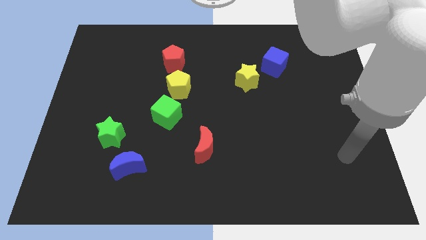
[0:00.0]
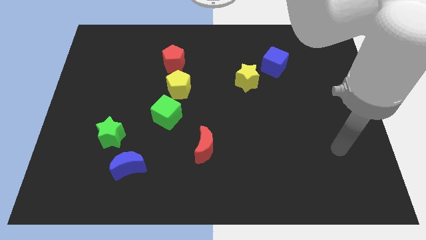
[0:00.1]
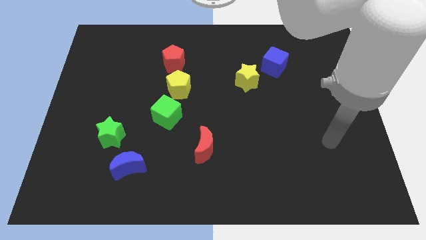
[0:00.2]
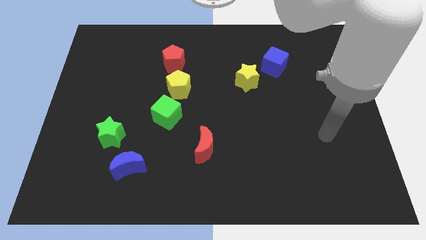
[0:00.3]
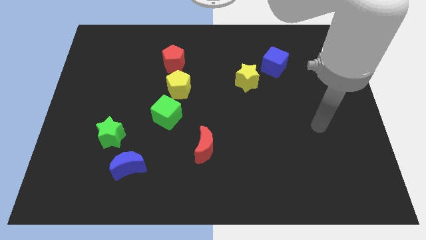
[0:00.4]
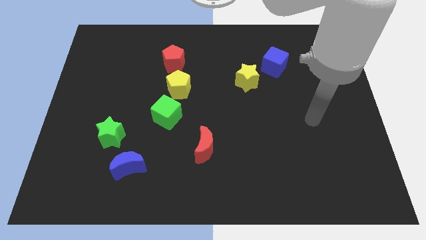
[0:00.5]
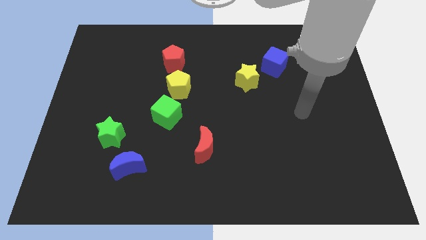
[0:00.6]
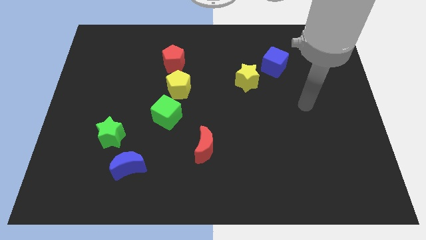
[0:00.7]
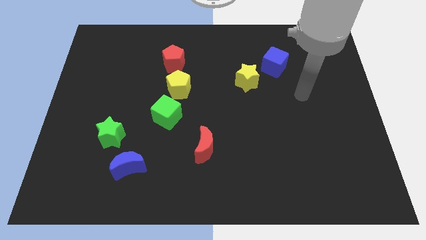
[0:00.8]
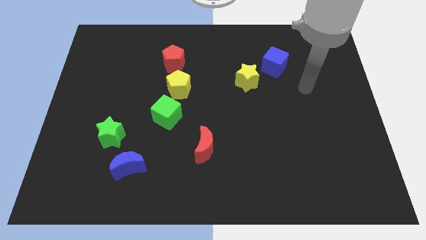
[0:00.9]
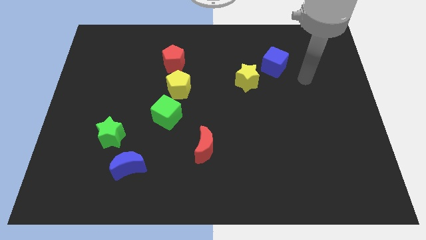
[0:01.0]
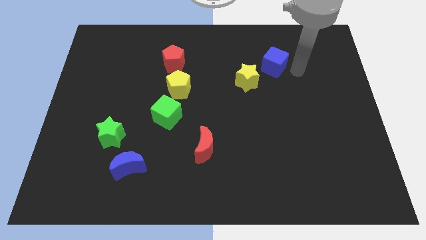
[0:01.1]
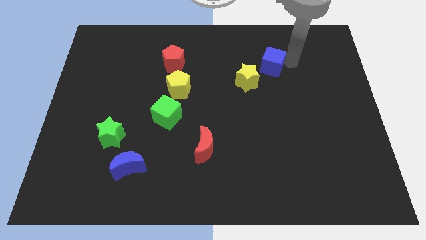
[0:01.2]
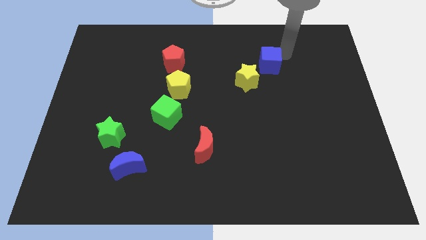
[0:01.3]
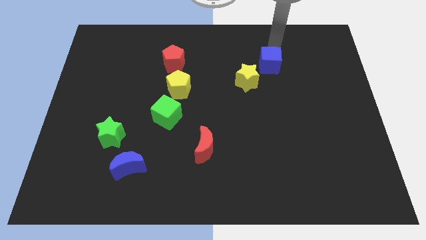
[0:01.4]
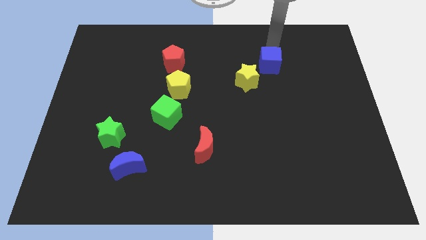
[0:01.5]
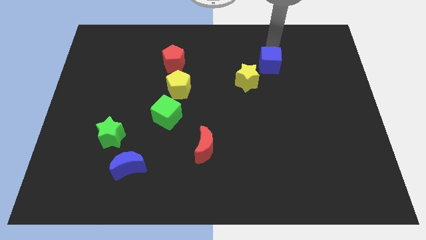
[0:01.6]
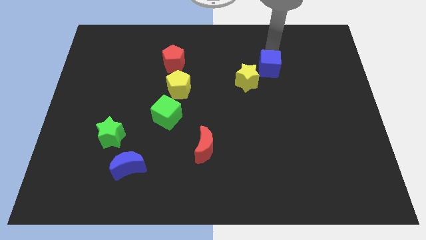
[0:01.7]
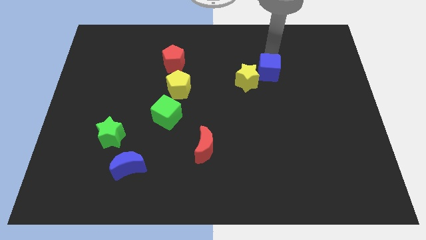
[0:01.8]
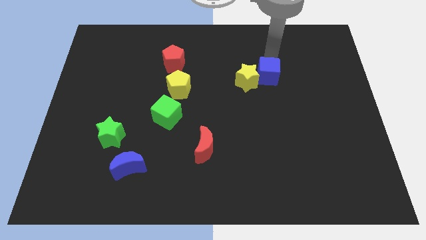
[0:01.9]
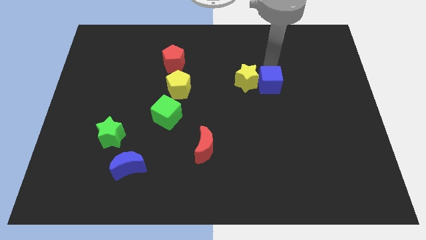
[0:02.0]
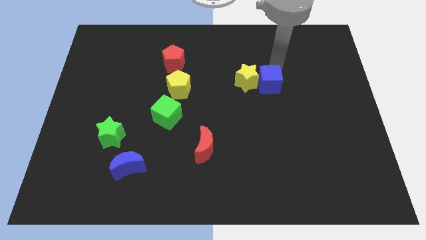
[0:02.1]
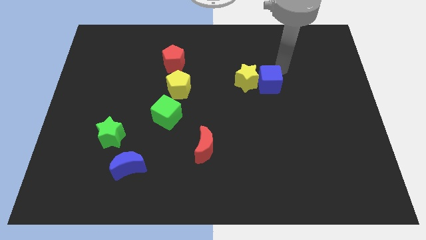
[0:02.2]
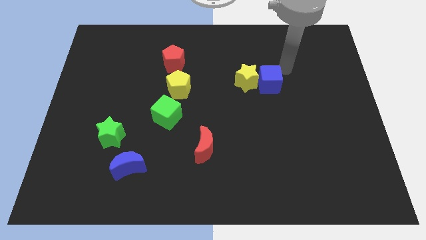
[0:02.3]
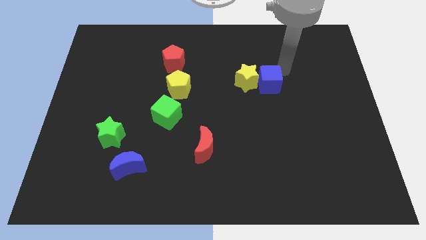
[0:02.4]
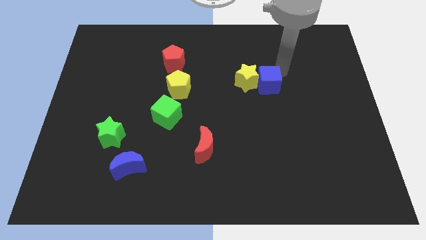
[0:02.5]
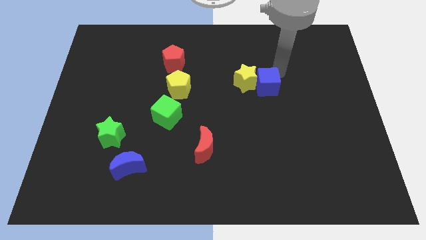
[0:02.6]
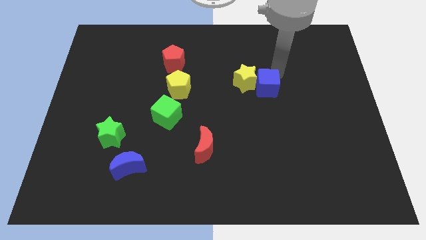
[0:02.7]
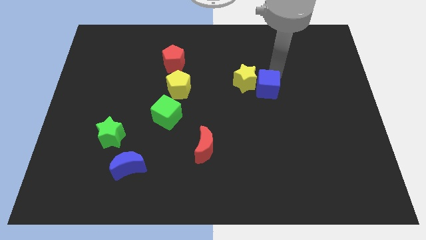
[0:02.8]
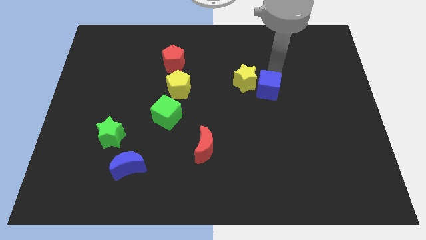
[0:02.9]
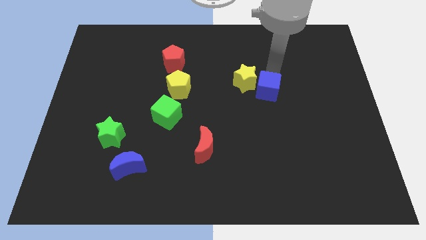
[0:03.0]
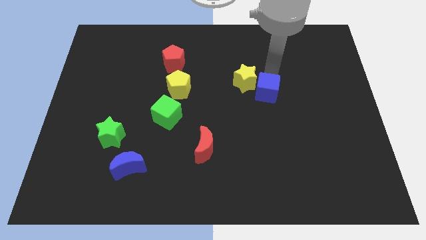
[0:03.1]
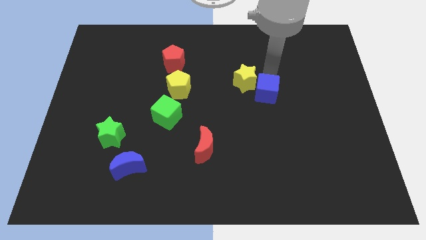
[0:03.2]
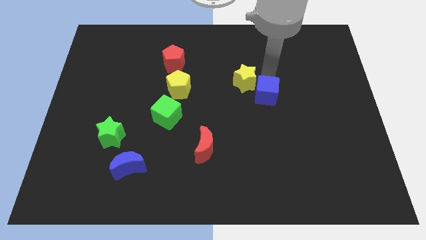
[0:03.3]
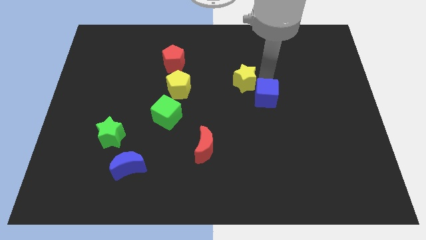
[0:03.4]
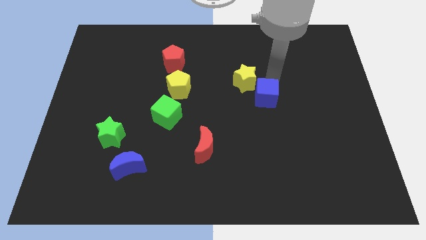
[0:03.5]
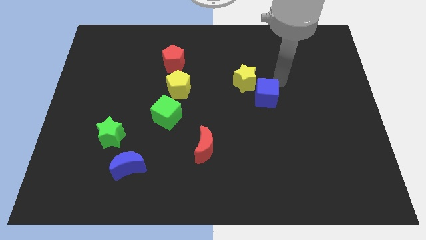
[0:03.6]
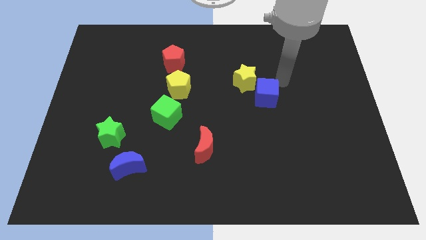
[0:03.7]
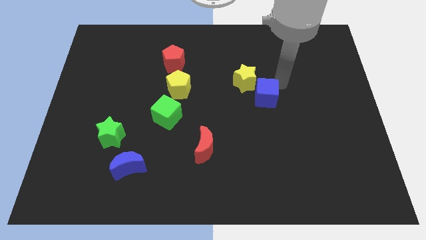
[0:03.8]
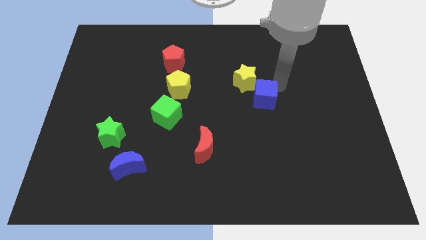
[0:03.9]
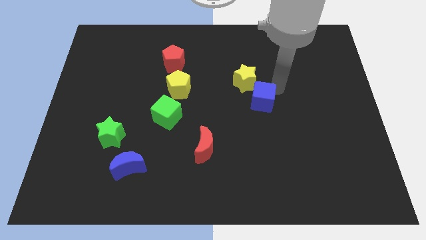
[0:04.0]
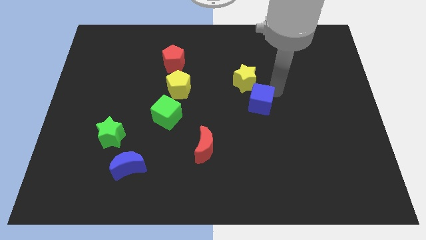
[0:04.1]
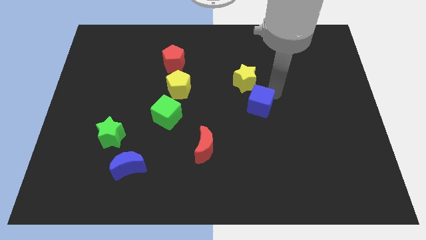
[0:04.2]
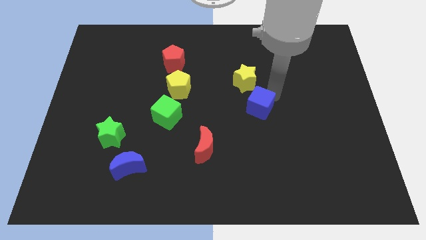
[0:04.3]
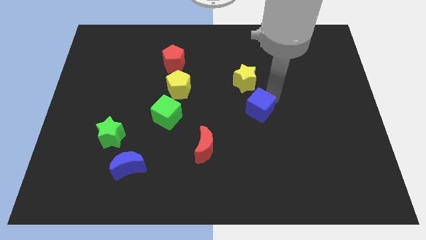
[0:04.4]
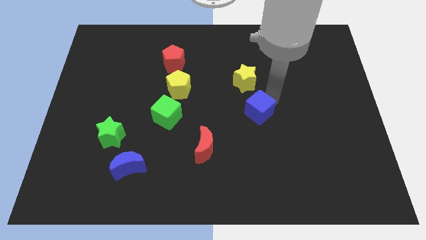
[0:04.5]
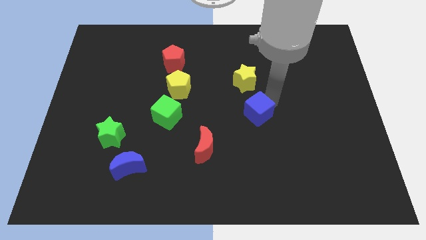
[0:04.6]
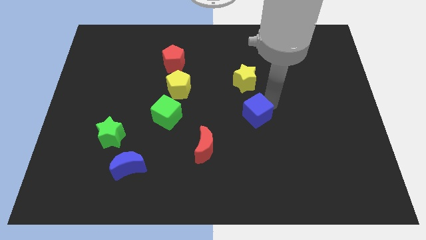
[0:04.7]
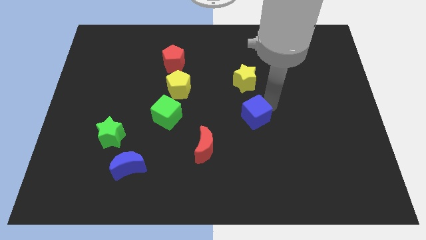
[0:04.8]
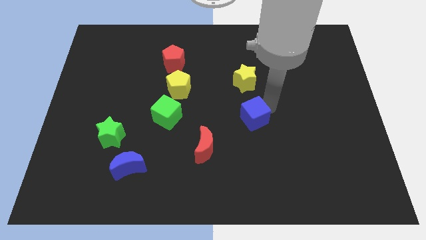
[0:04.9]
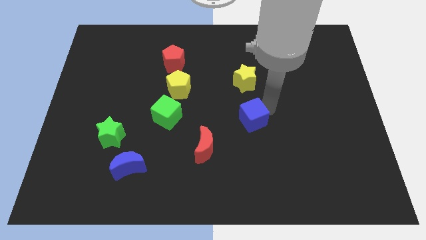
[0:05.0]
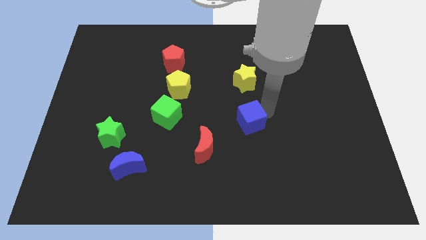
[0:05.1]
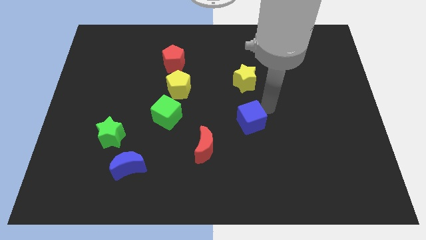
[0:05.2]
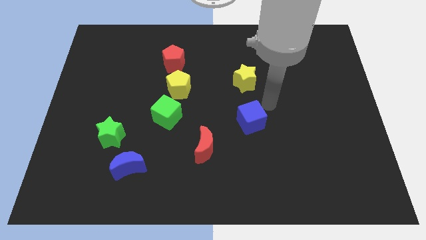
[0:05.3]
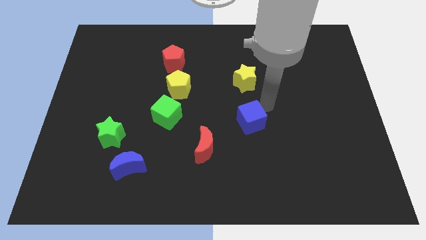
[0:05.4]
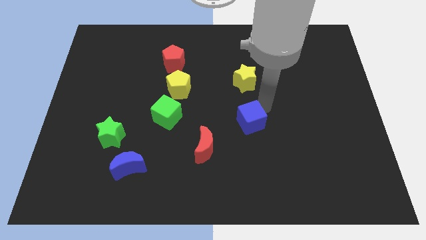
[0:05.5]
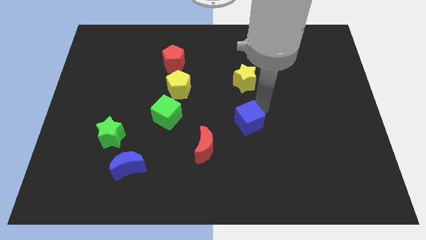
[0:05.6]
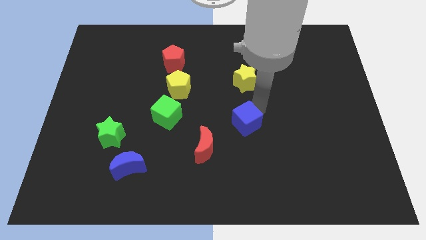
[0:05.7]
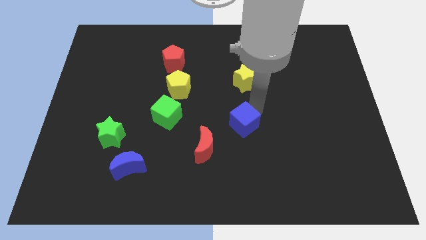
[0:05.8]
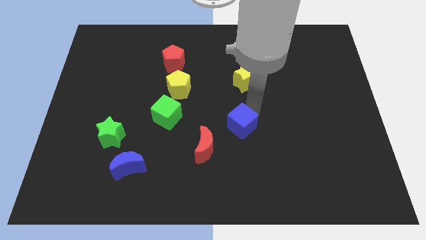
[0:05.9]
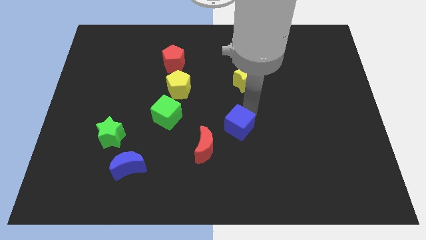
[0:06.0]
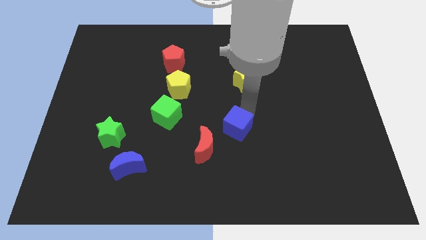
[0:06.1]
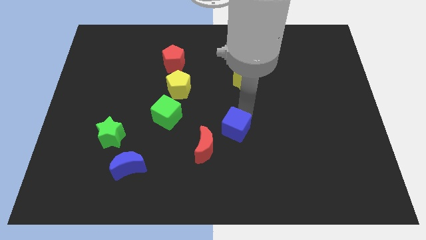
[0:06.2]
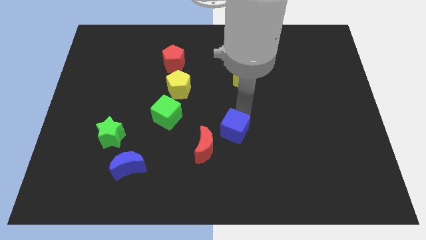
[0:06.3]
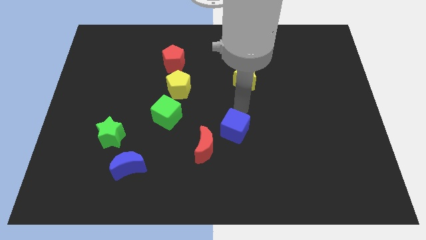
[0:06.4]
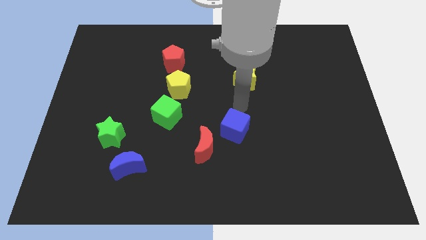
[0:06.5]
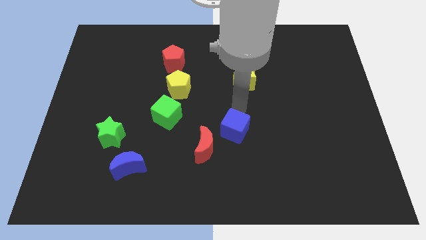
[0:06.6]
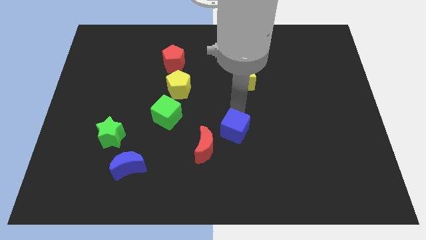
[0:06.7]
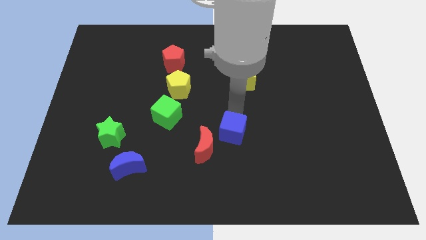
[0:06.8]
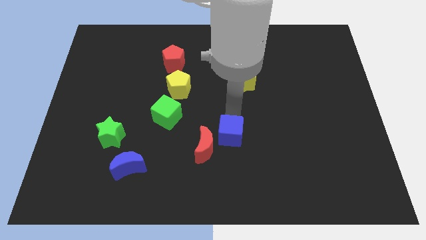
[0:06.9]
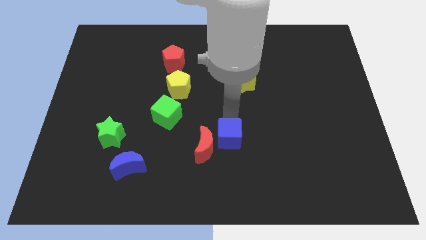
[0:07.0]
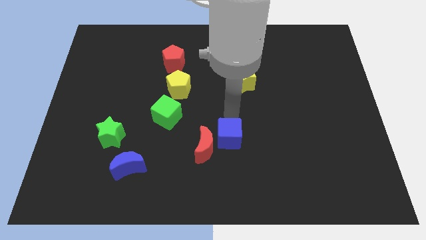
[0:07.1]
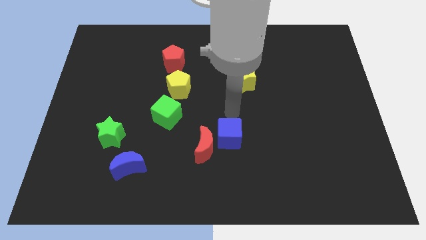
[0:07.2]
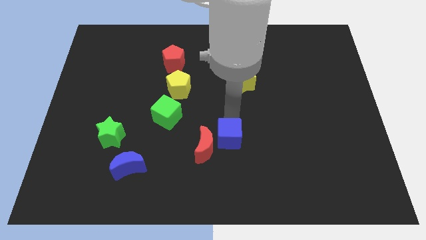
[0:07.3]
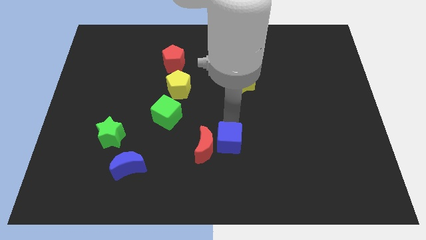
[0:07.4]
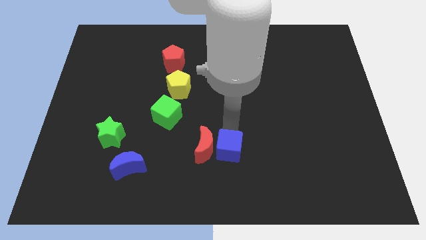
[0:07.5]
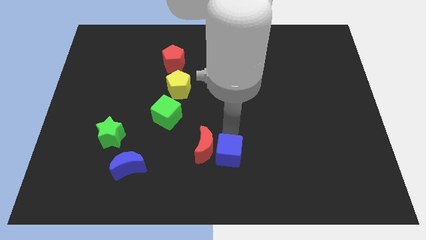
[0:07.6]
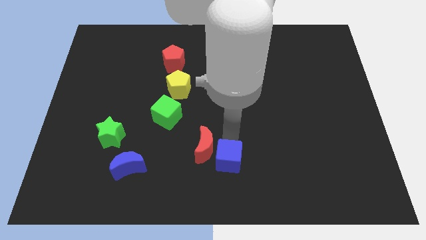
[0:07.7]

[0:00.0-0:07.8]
push the blue cube to the bottom
